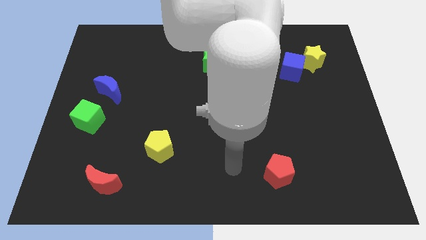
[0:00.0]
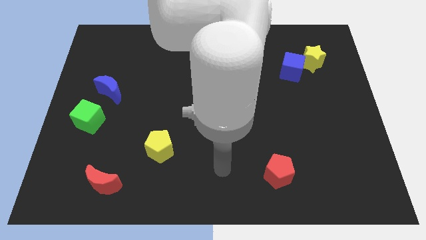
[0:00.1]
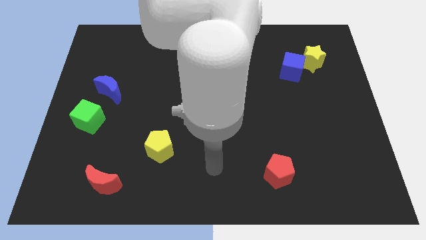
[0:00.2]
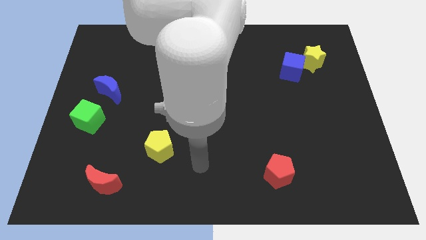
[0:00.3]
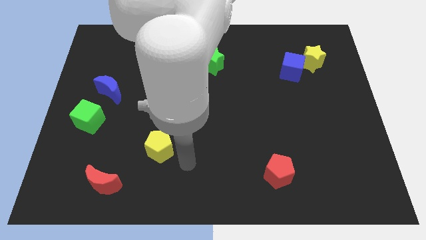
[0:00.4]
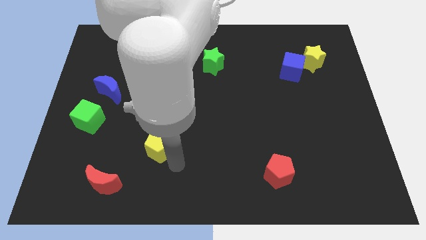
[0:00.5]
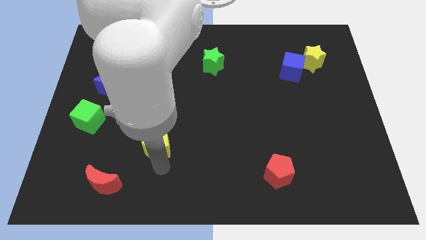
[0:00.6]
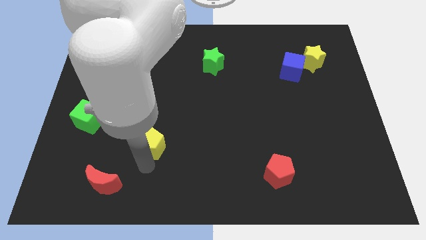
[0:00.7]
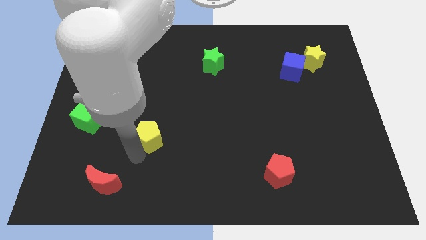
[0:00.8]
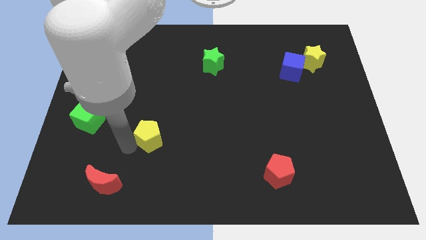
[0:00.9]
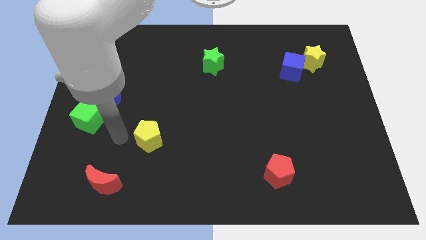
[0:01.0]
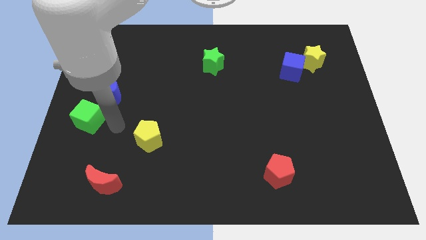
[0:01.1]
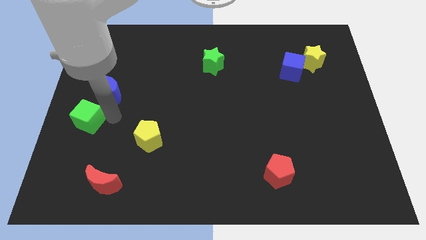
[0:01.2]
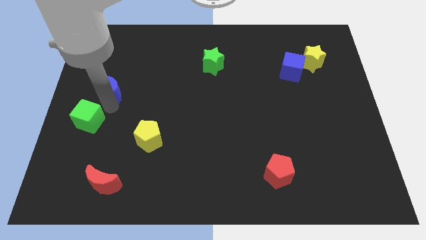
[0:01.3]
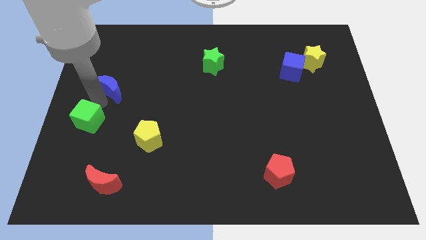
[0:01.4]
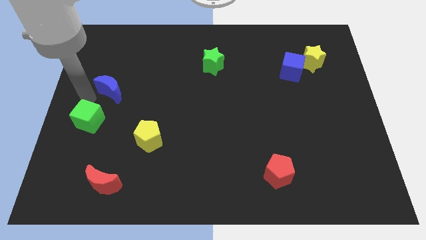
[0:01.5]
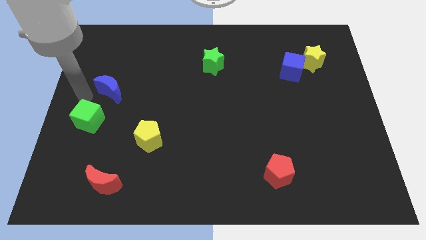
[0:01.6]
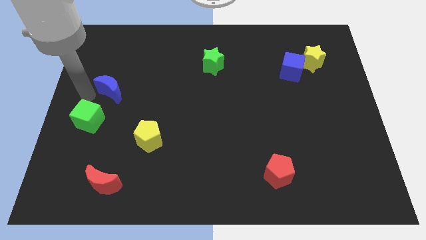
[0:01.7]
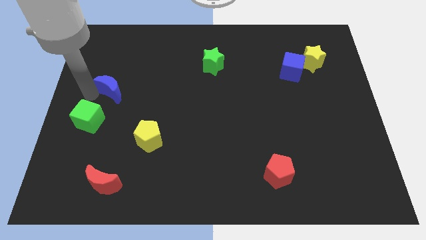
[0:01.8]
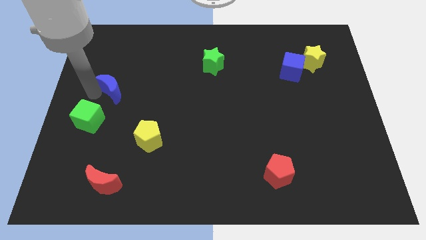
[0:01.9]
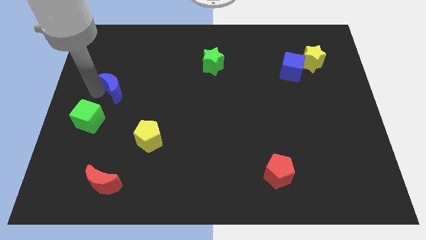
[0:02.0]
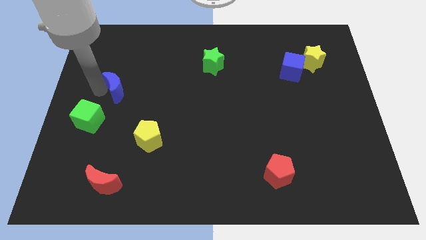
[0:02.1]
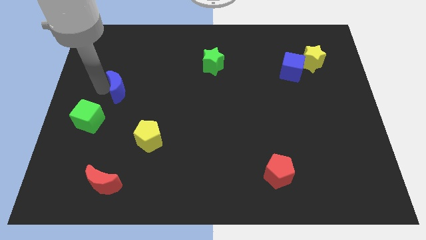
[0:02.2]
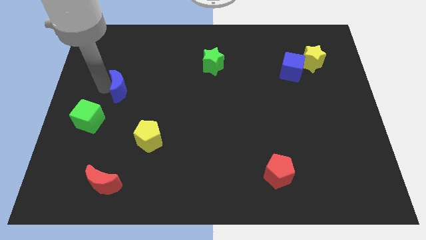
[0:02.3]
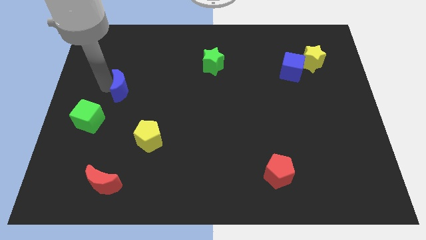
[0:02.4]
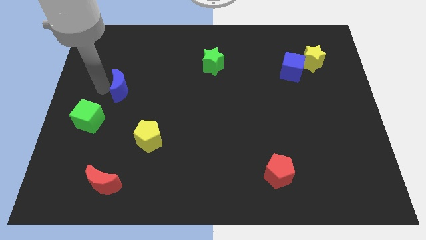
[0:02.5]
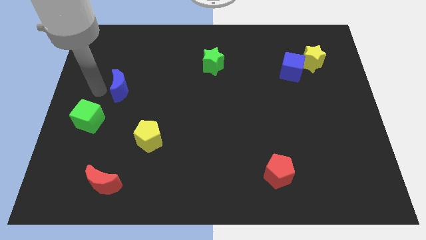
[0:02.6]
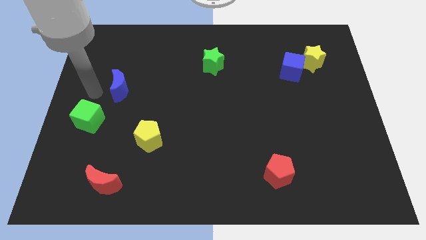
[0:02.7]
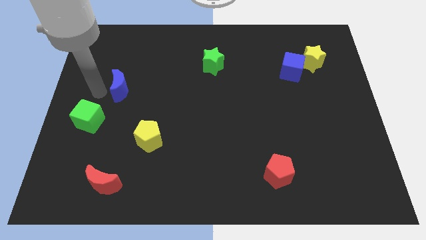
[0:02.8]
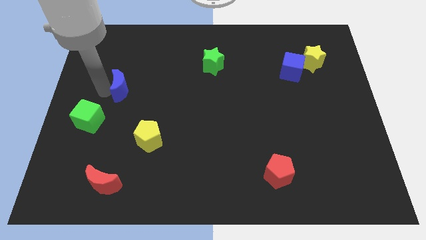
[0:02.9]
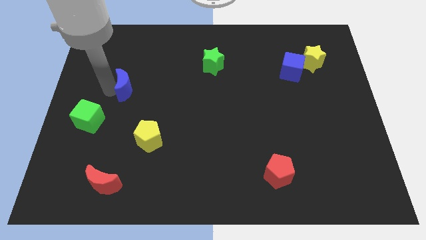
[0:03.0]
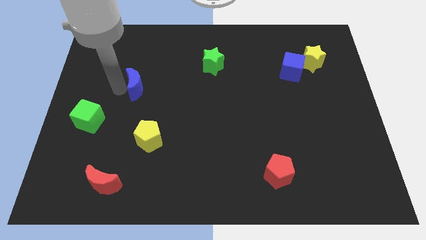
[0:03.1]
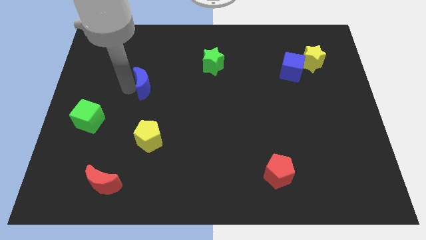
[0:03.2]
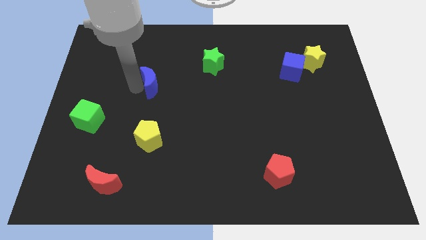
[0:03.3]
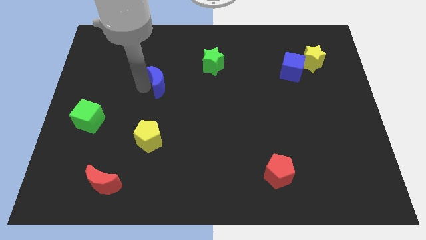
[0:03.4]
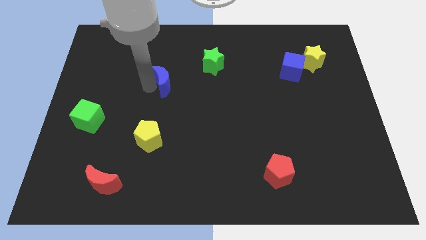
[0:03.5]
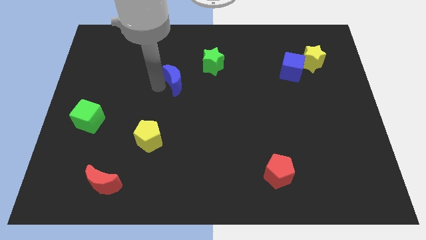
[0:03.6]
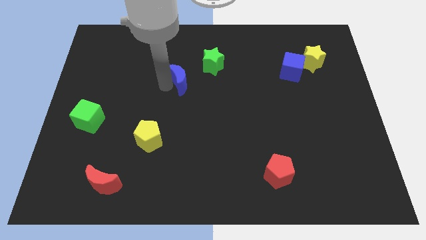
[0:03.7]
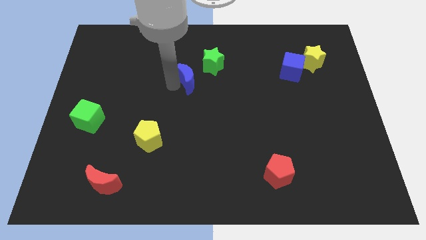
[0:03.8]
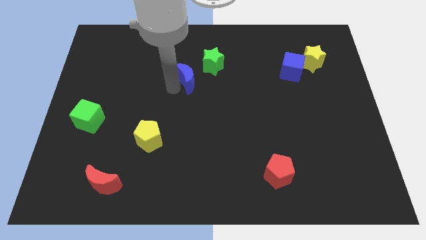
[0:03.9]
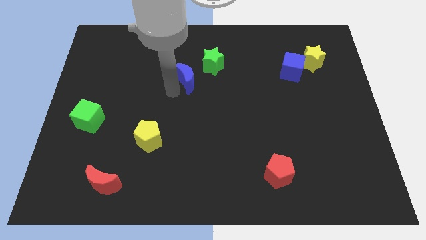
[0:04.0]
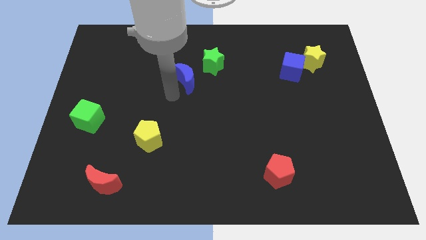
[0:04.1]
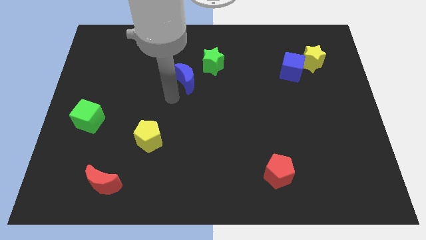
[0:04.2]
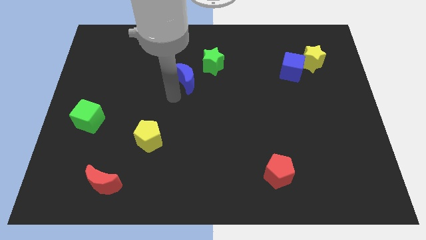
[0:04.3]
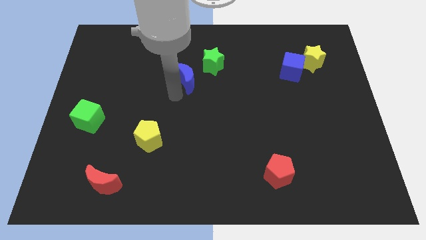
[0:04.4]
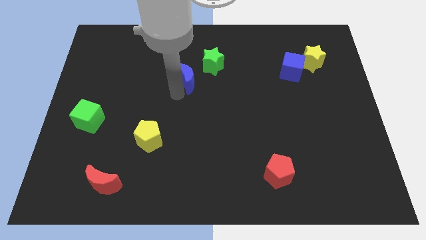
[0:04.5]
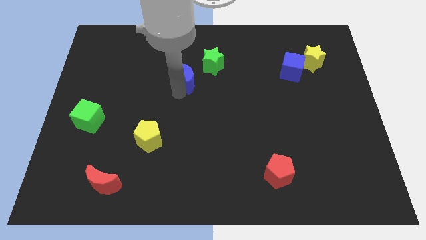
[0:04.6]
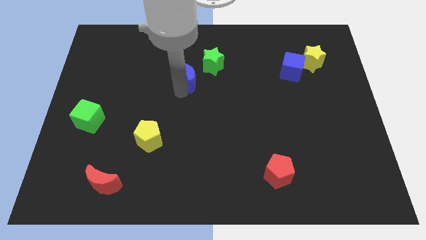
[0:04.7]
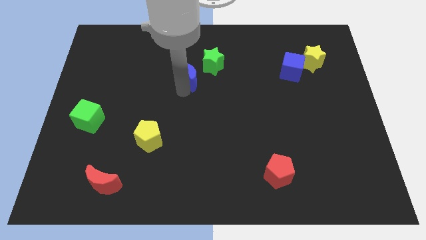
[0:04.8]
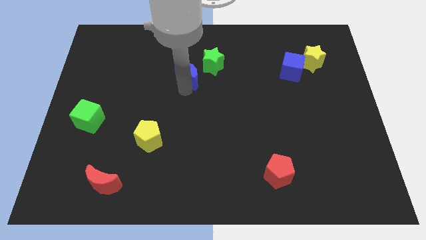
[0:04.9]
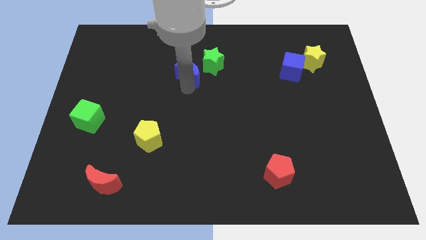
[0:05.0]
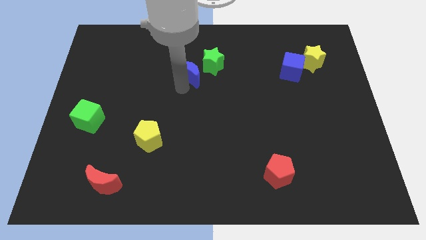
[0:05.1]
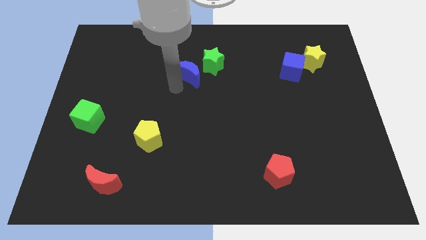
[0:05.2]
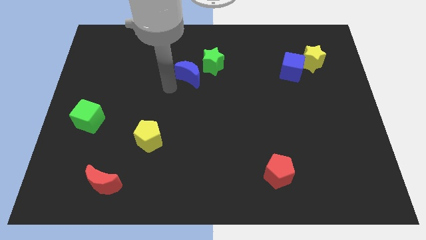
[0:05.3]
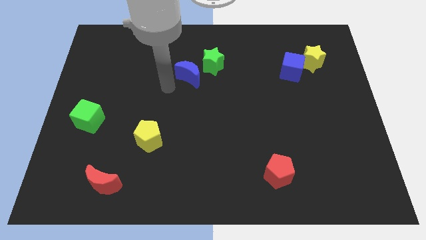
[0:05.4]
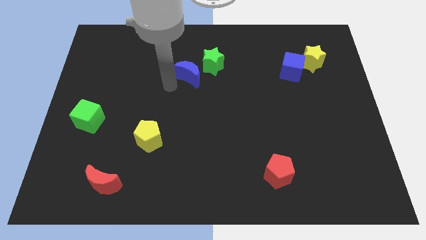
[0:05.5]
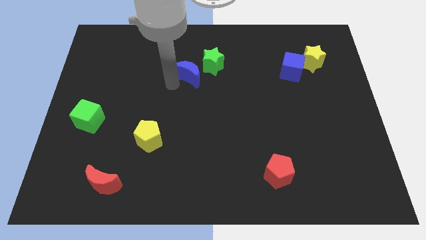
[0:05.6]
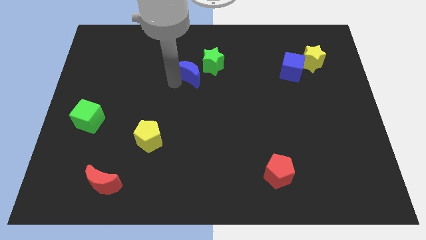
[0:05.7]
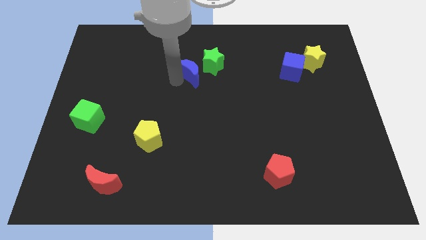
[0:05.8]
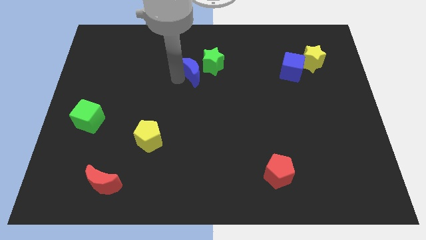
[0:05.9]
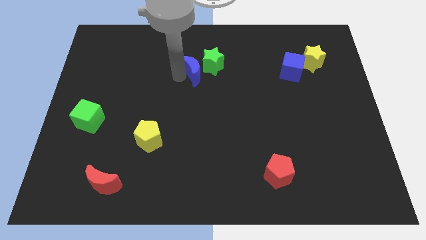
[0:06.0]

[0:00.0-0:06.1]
slide the blue moon to the green star
